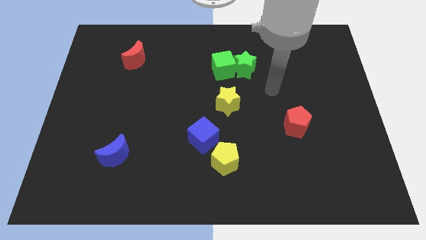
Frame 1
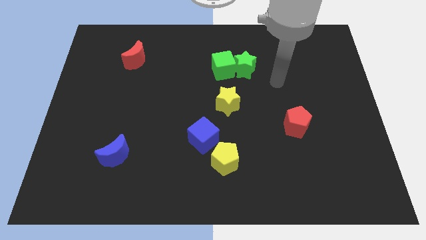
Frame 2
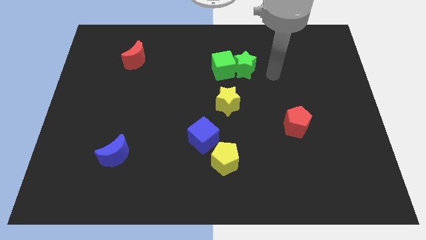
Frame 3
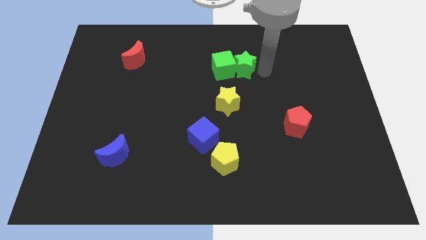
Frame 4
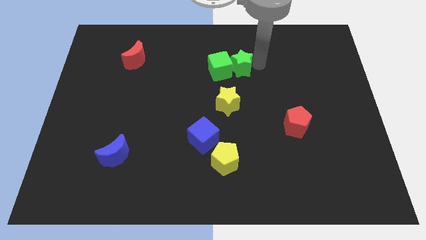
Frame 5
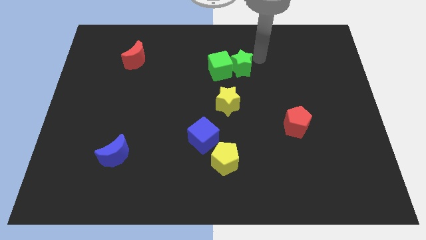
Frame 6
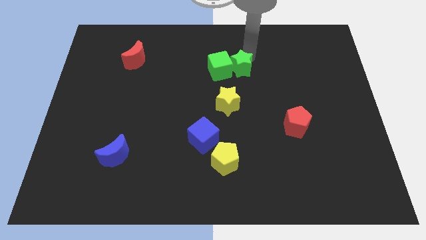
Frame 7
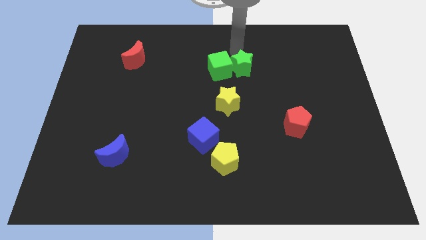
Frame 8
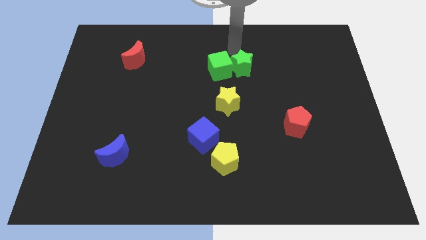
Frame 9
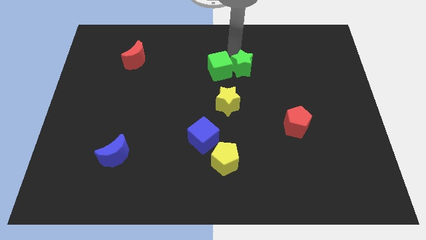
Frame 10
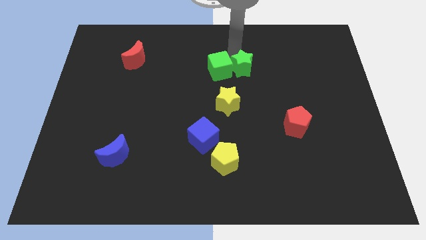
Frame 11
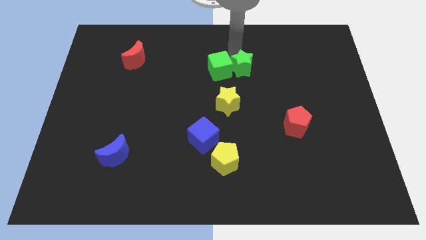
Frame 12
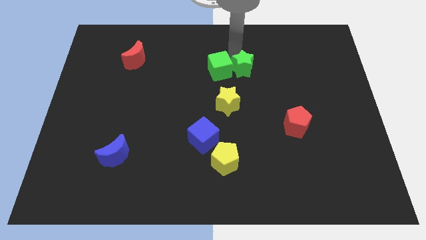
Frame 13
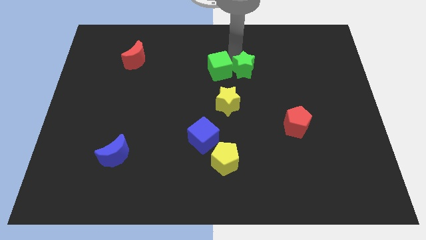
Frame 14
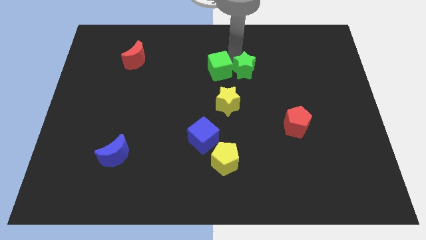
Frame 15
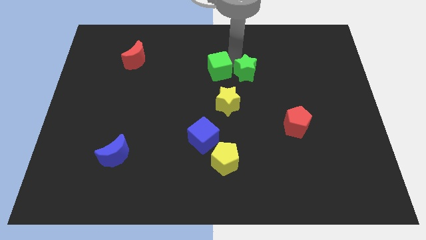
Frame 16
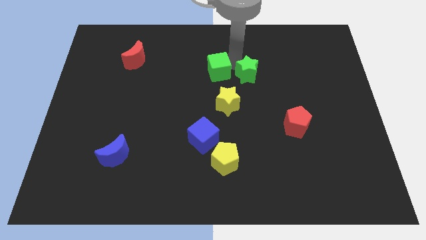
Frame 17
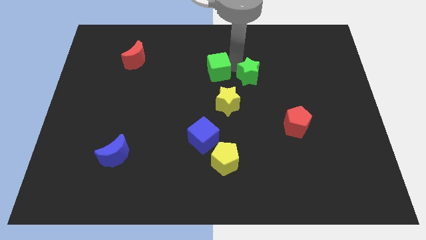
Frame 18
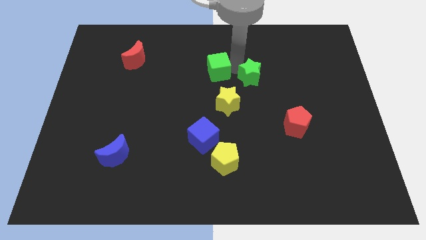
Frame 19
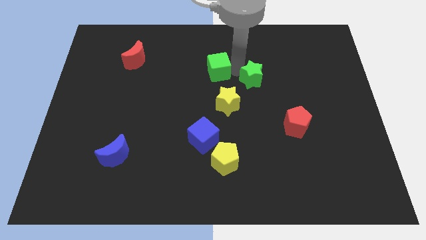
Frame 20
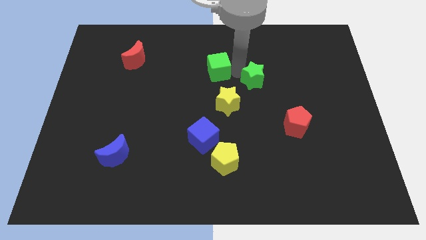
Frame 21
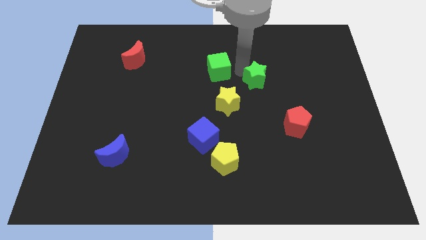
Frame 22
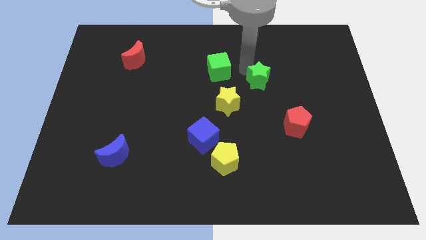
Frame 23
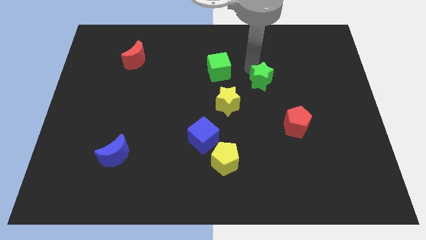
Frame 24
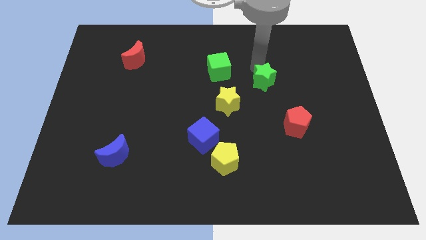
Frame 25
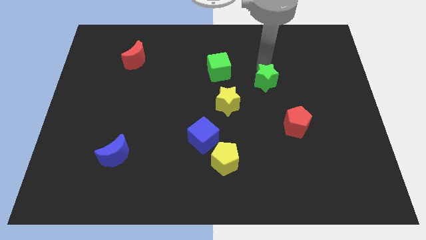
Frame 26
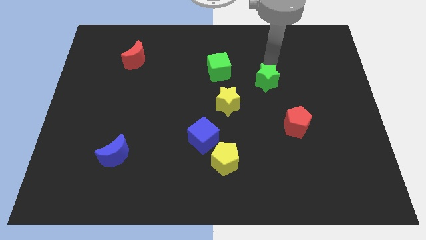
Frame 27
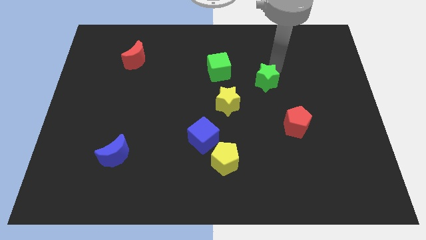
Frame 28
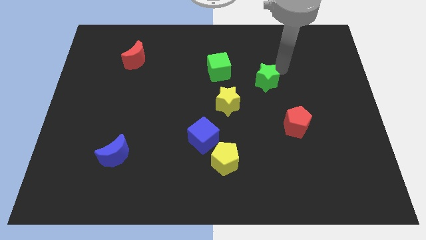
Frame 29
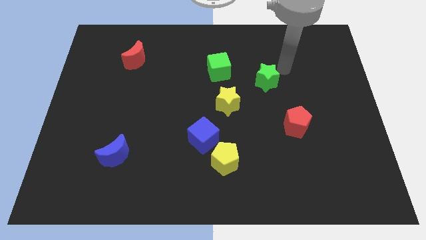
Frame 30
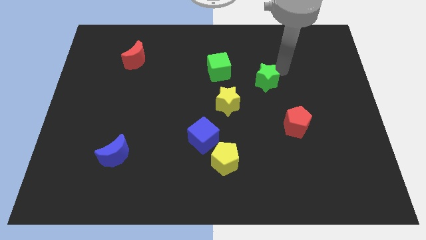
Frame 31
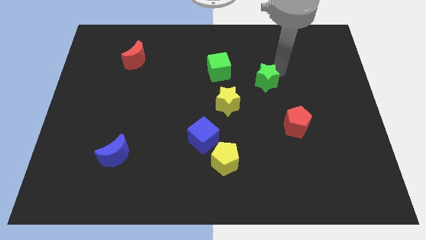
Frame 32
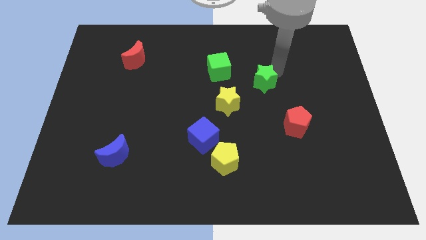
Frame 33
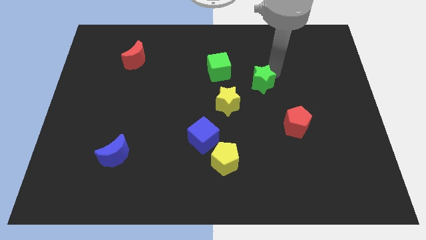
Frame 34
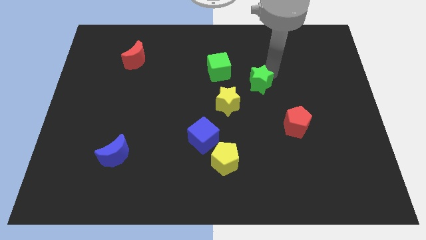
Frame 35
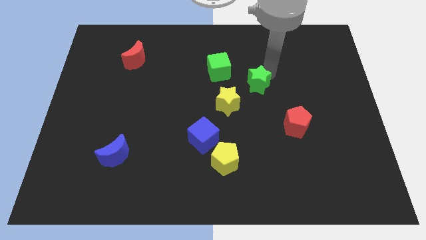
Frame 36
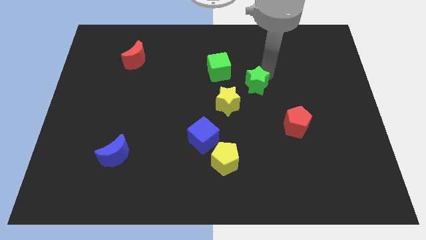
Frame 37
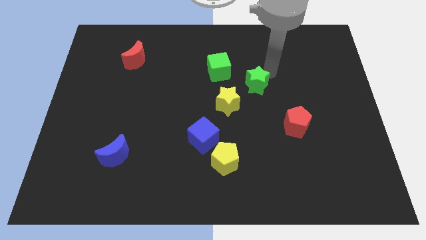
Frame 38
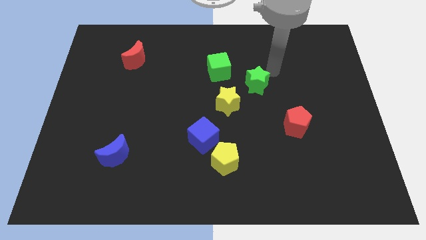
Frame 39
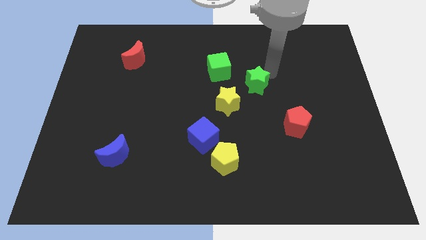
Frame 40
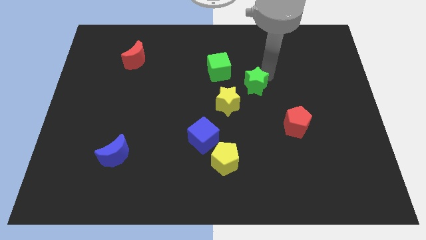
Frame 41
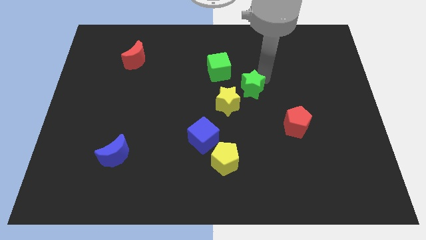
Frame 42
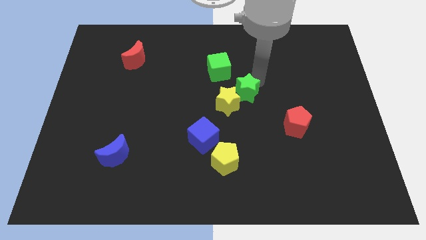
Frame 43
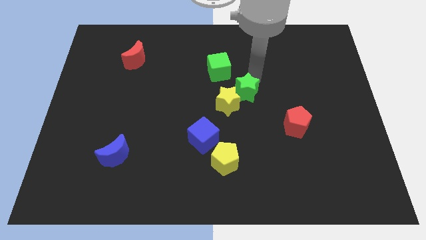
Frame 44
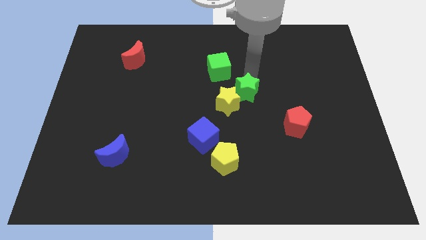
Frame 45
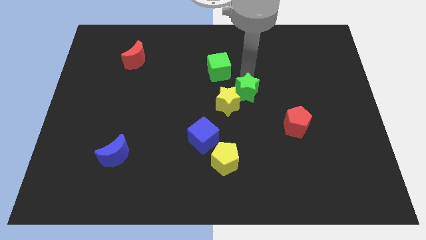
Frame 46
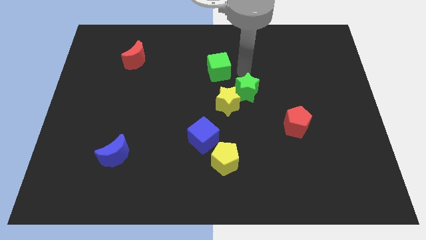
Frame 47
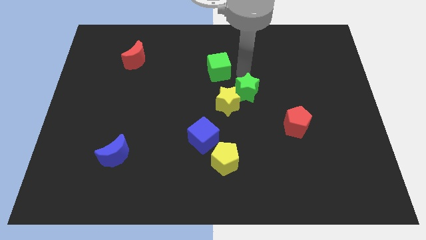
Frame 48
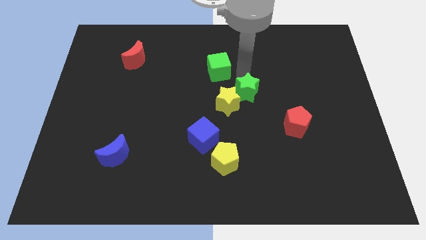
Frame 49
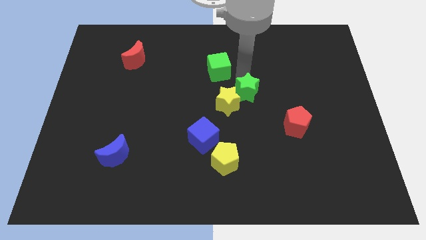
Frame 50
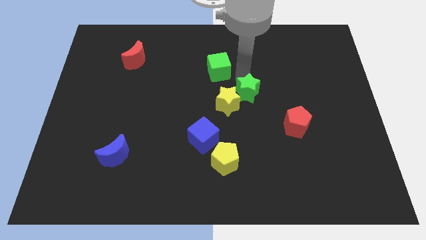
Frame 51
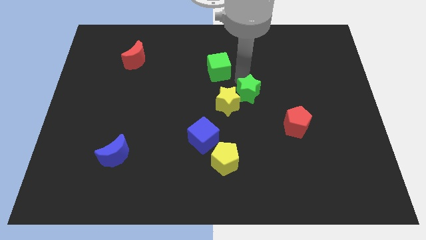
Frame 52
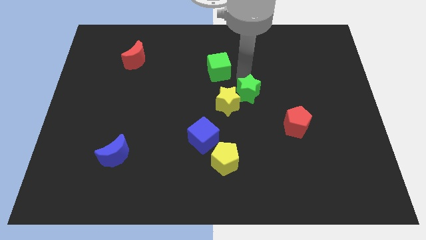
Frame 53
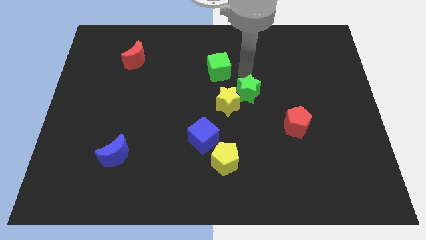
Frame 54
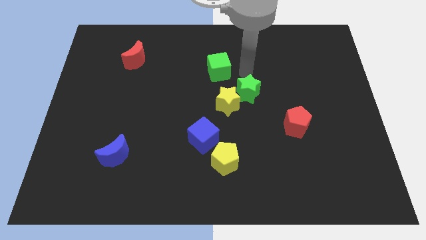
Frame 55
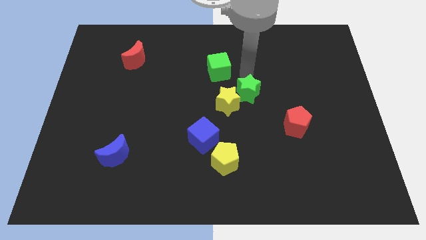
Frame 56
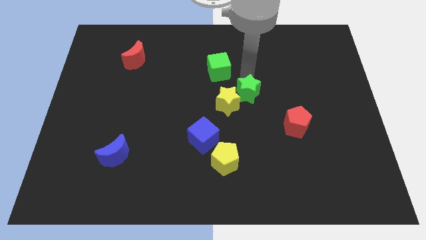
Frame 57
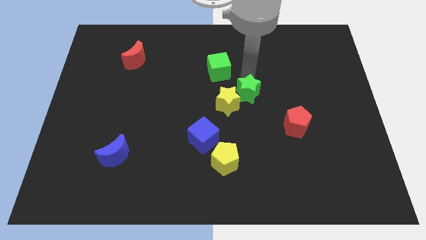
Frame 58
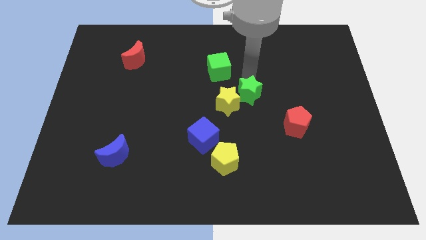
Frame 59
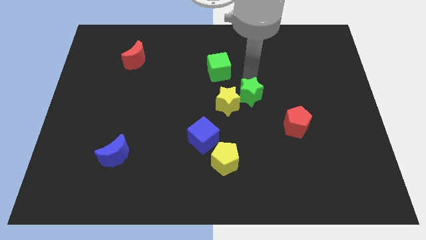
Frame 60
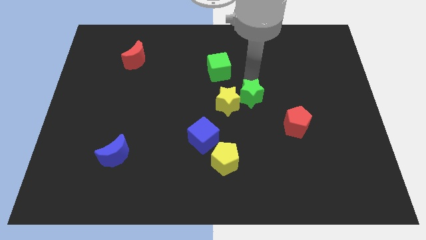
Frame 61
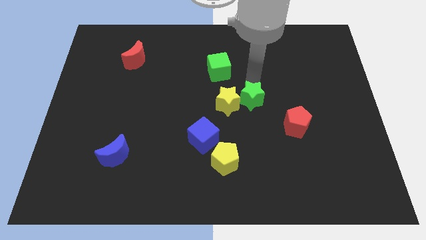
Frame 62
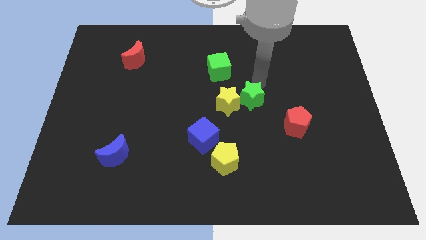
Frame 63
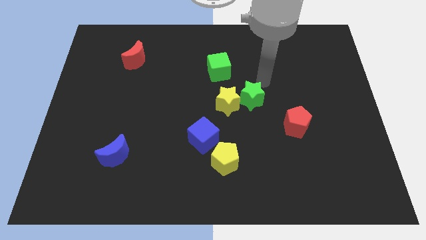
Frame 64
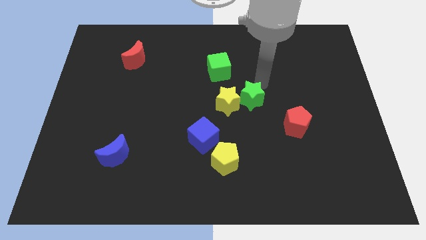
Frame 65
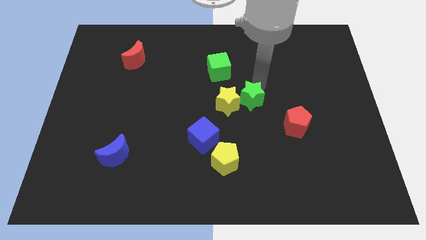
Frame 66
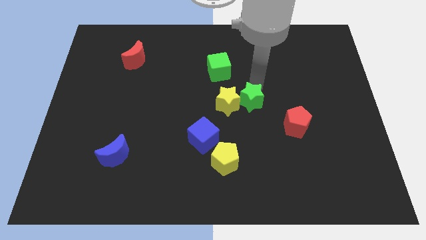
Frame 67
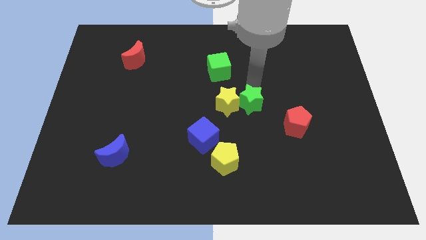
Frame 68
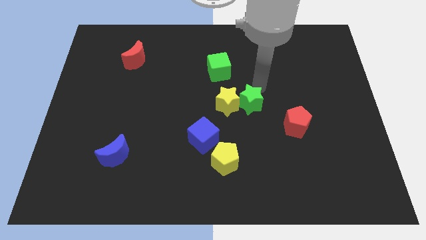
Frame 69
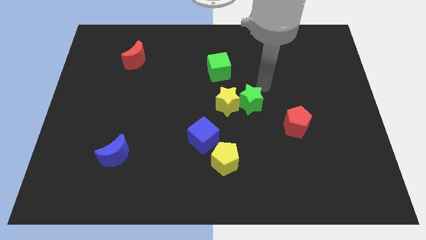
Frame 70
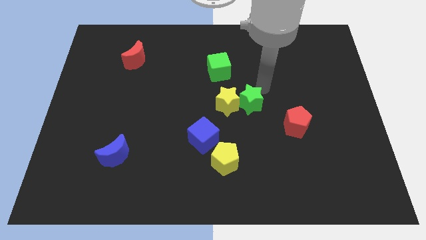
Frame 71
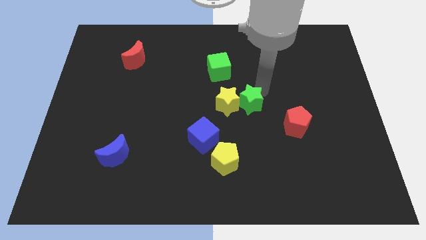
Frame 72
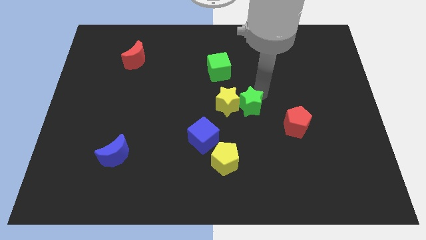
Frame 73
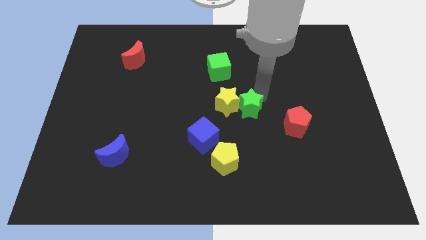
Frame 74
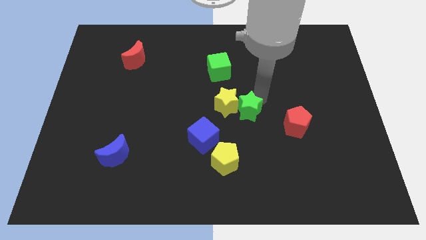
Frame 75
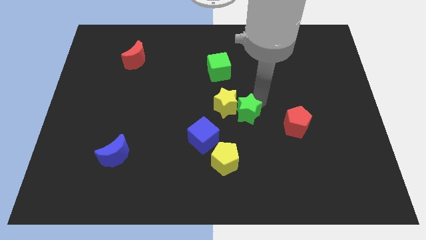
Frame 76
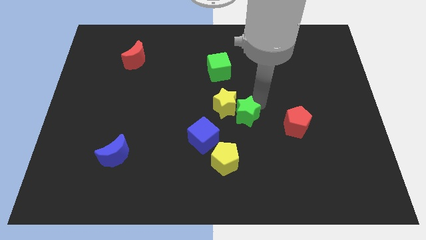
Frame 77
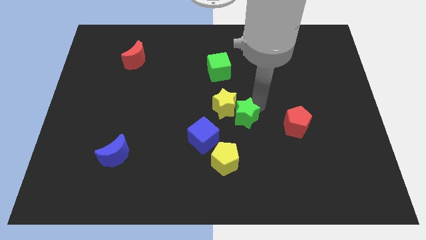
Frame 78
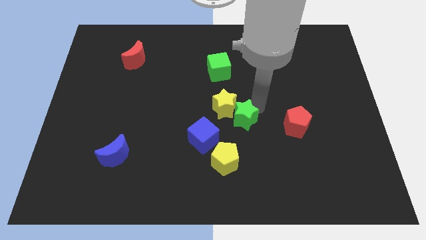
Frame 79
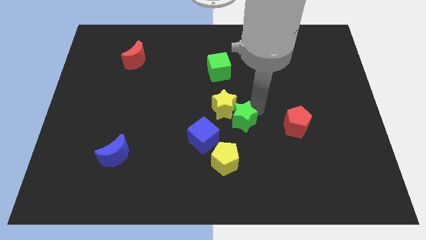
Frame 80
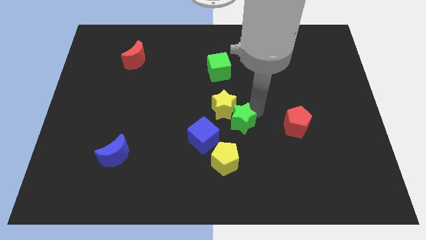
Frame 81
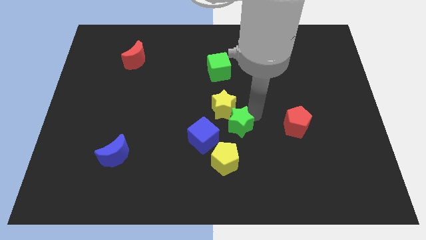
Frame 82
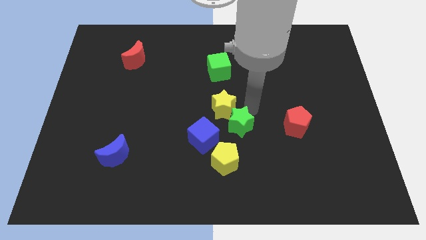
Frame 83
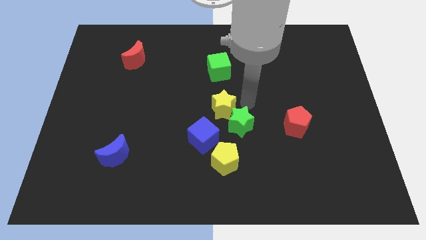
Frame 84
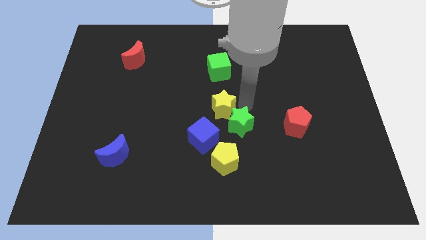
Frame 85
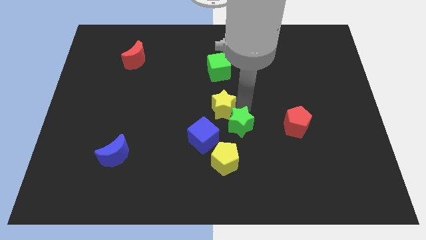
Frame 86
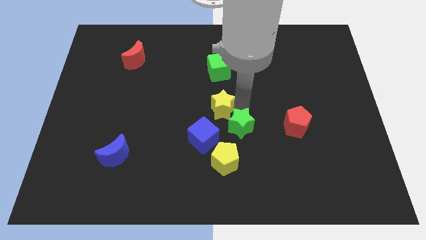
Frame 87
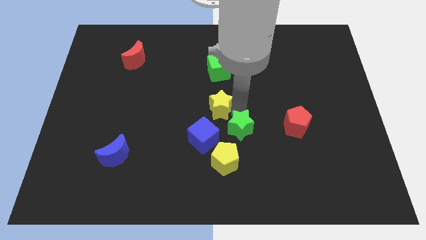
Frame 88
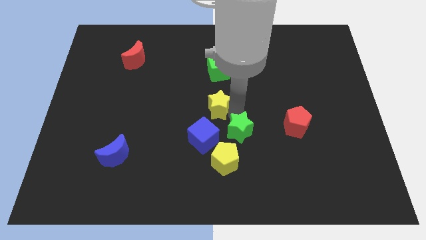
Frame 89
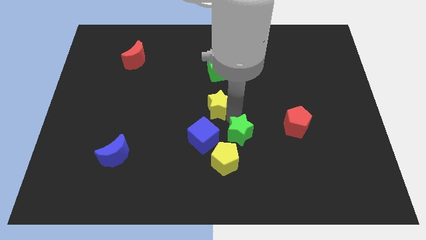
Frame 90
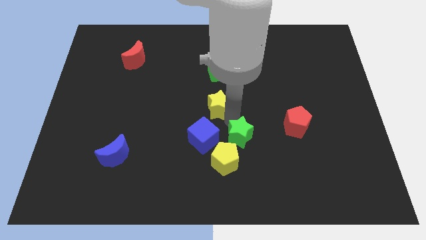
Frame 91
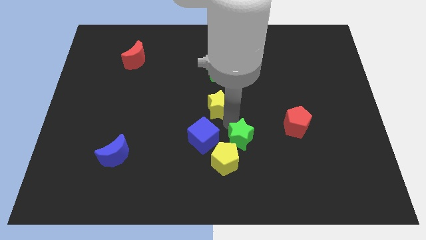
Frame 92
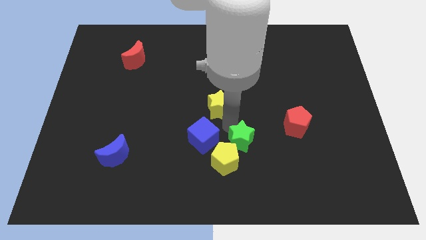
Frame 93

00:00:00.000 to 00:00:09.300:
put the green star to the yellow pentagon
